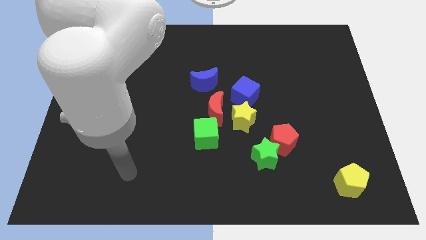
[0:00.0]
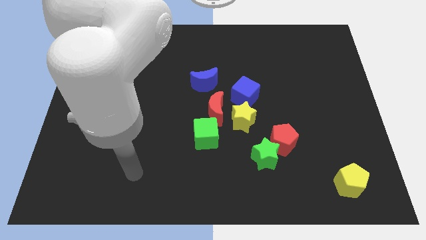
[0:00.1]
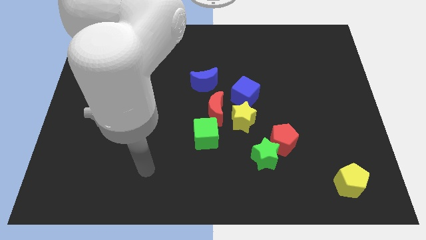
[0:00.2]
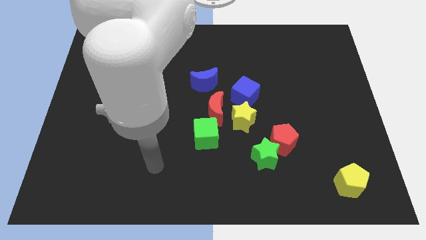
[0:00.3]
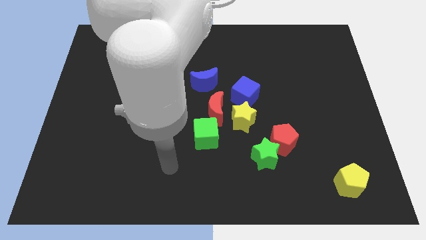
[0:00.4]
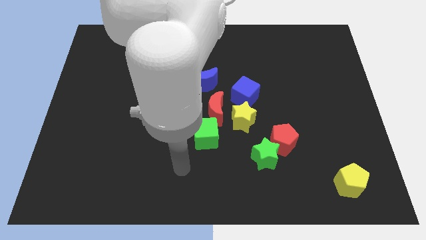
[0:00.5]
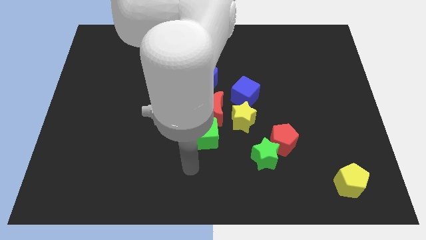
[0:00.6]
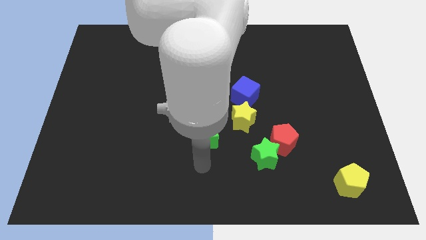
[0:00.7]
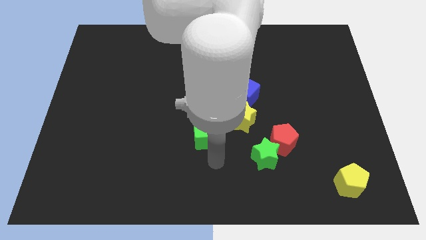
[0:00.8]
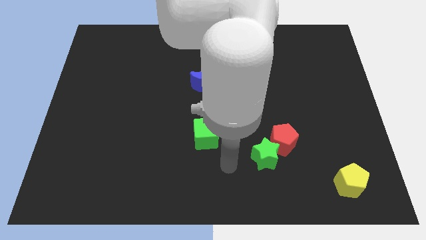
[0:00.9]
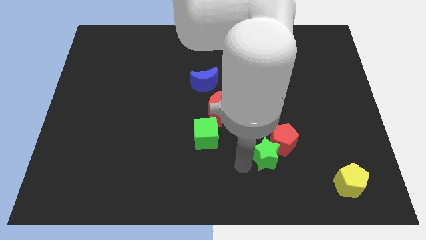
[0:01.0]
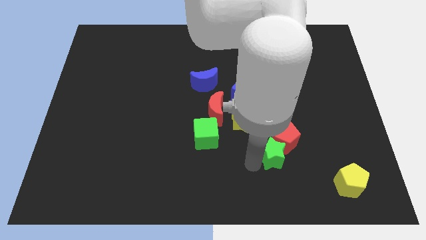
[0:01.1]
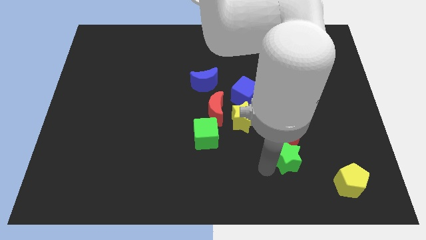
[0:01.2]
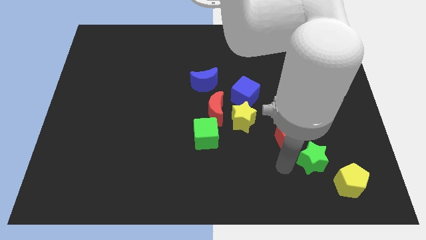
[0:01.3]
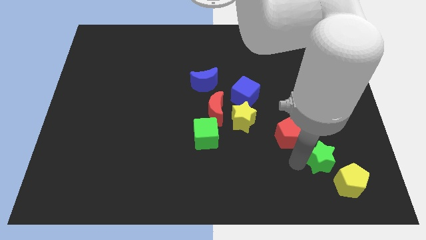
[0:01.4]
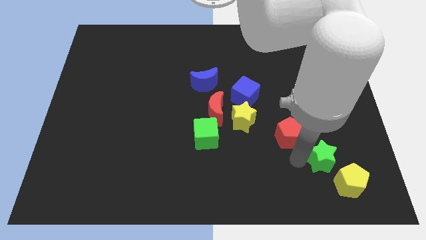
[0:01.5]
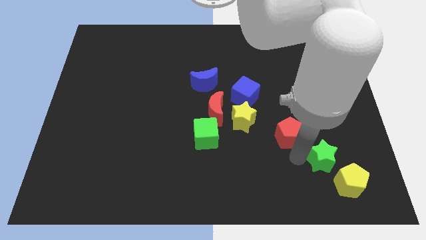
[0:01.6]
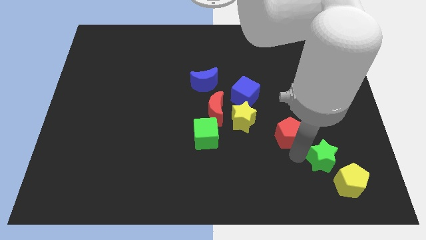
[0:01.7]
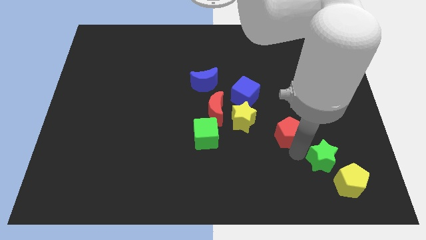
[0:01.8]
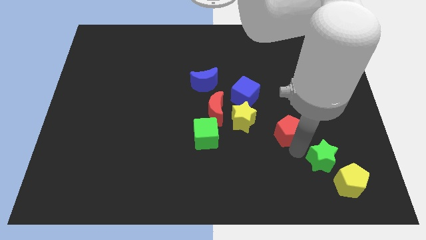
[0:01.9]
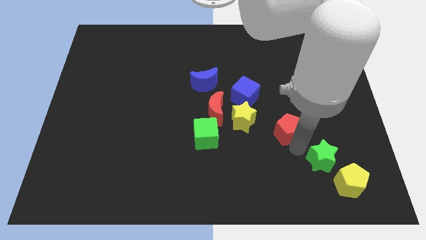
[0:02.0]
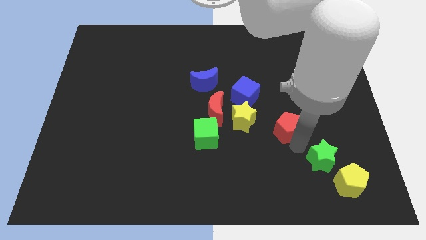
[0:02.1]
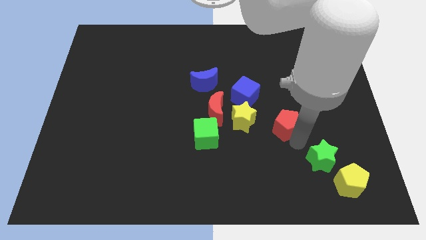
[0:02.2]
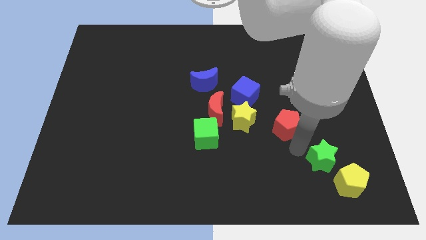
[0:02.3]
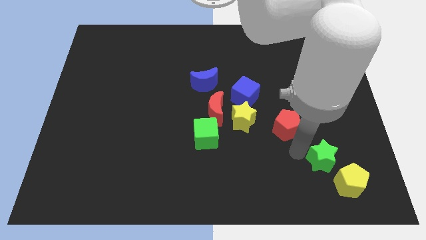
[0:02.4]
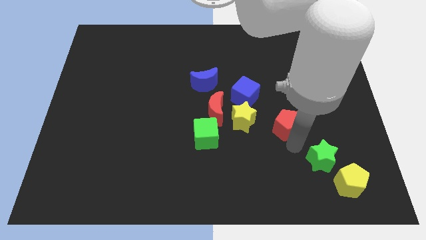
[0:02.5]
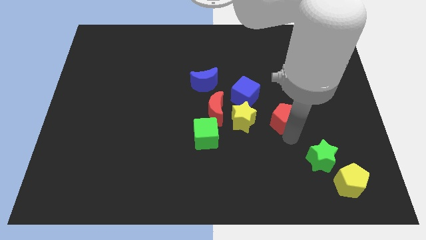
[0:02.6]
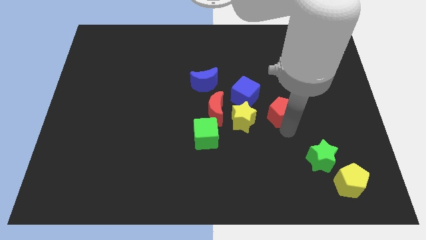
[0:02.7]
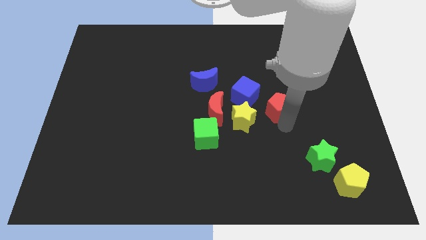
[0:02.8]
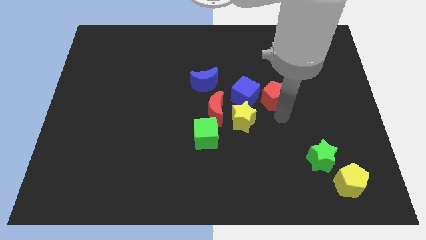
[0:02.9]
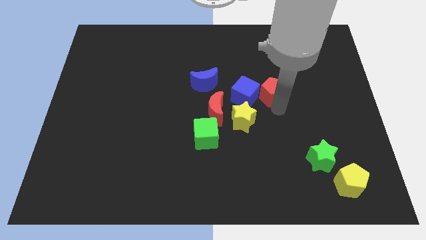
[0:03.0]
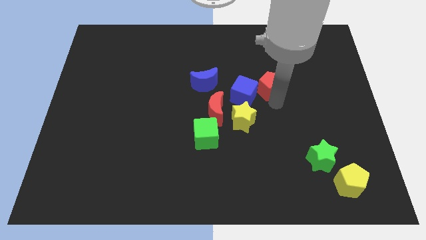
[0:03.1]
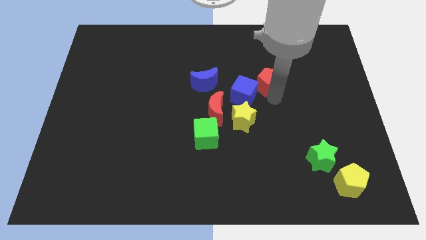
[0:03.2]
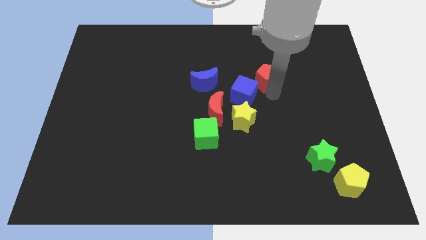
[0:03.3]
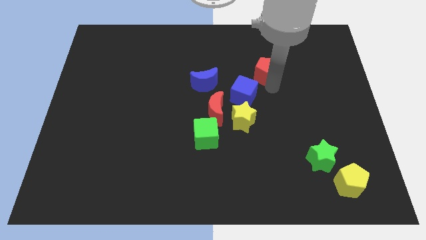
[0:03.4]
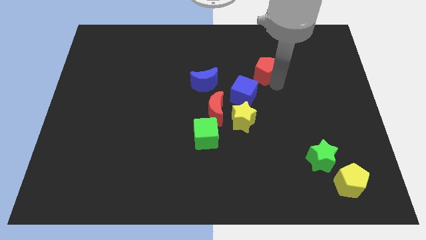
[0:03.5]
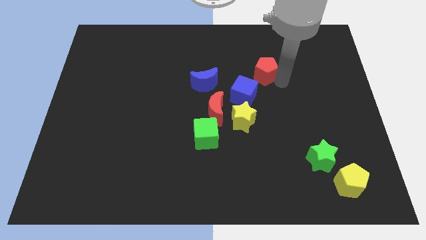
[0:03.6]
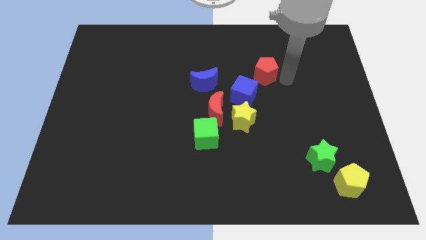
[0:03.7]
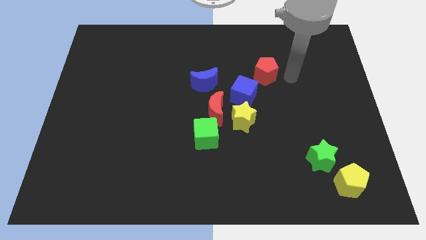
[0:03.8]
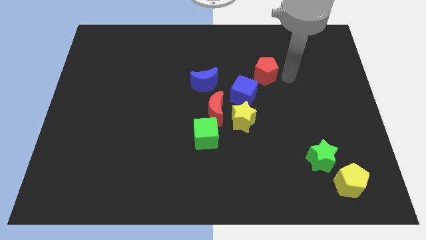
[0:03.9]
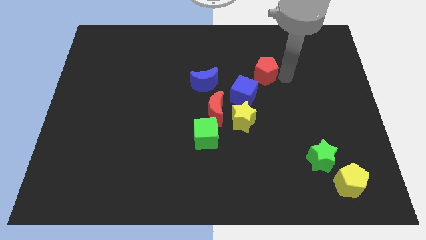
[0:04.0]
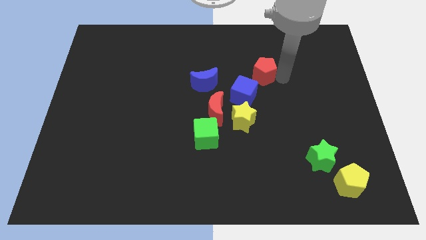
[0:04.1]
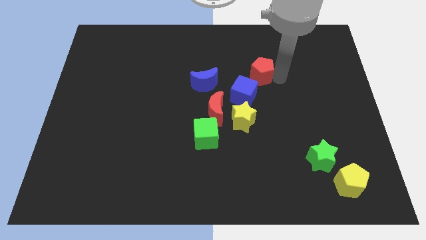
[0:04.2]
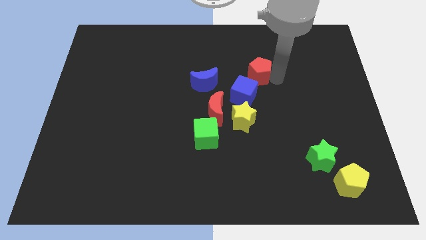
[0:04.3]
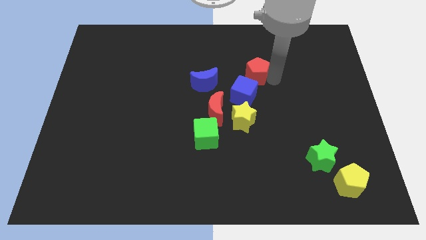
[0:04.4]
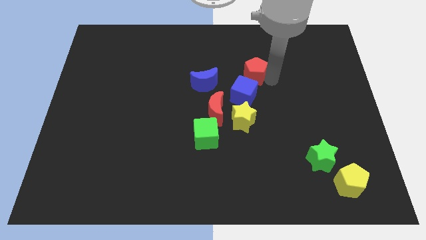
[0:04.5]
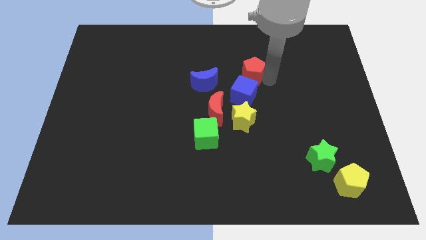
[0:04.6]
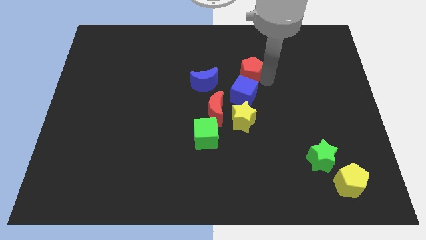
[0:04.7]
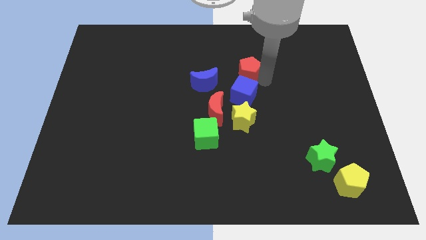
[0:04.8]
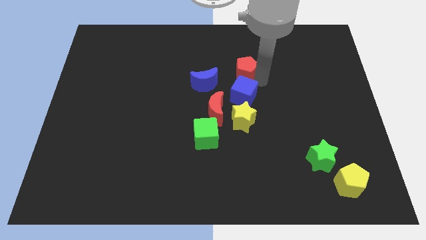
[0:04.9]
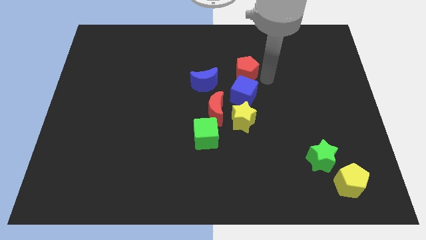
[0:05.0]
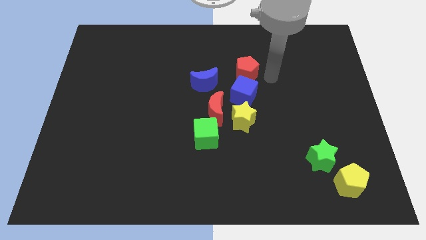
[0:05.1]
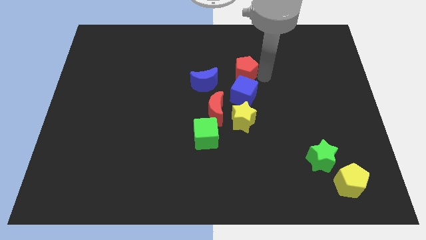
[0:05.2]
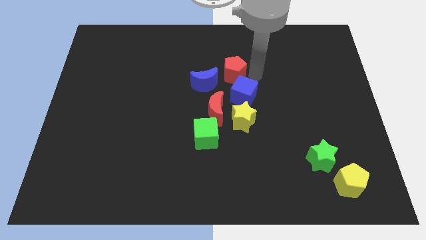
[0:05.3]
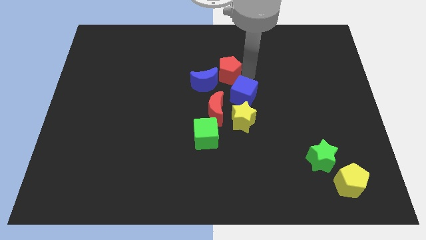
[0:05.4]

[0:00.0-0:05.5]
push the red pentagon upwards and left diagonally

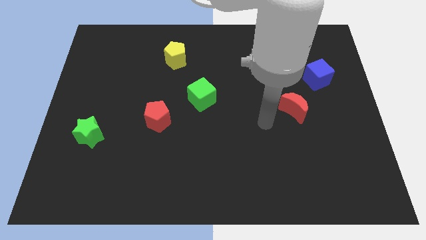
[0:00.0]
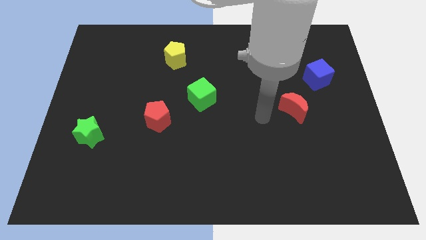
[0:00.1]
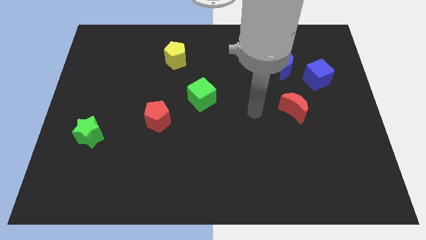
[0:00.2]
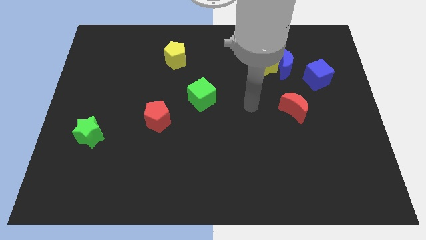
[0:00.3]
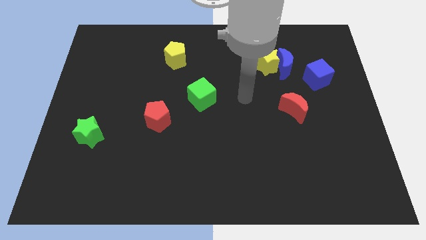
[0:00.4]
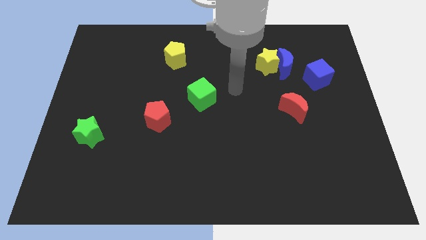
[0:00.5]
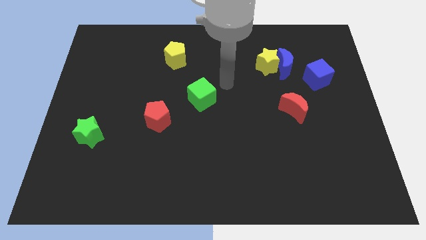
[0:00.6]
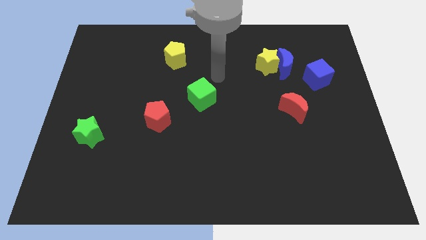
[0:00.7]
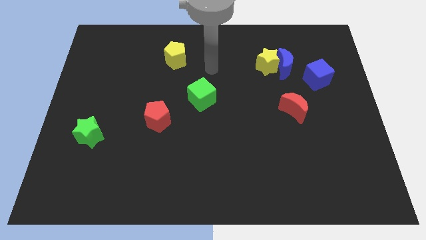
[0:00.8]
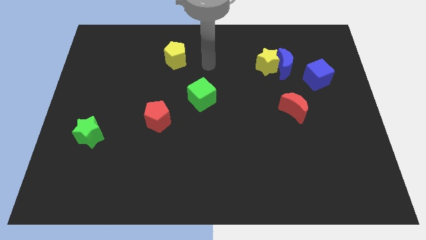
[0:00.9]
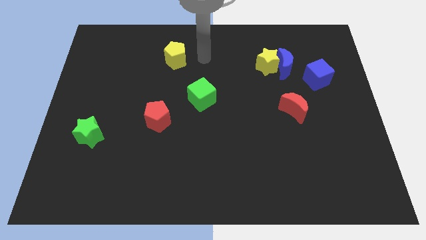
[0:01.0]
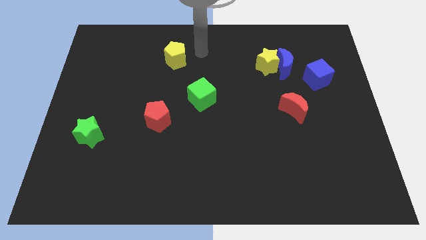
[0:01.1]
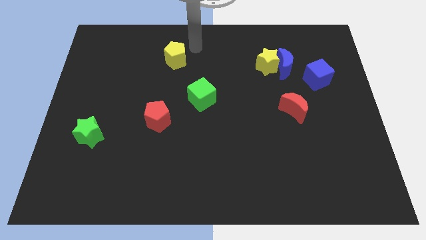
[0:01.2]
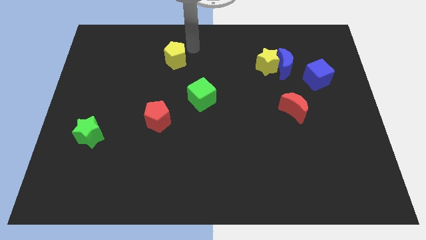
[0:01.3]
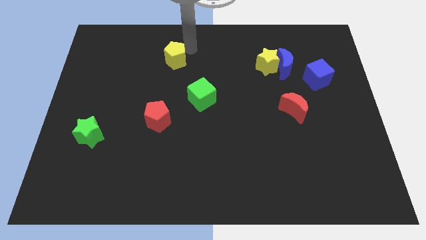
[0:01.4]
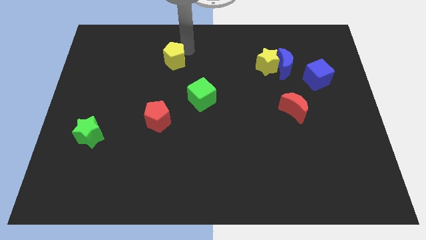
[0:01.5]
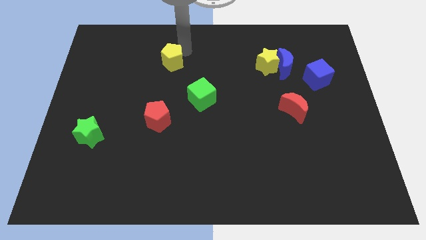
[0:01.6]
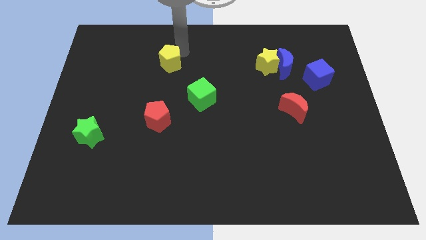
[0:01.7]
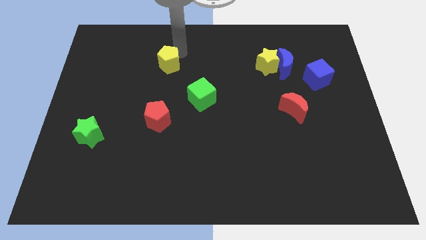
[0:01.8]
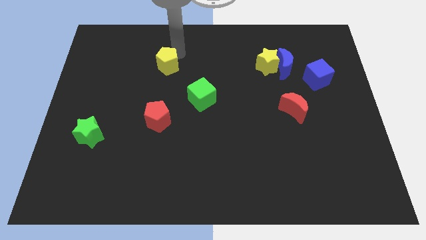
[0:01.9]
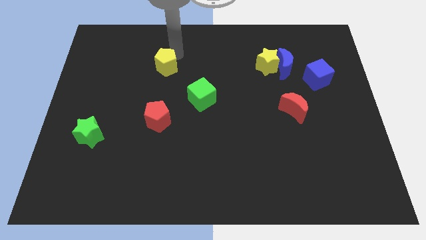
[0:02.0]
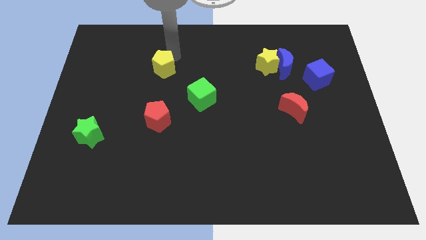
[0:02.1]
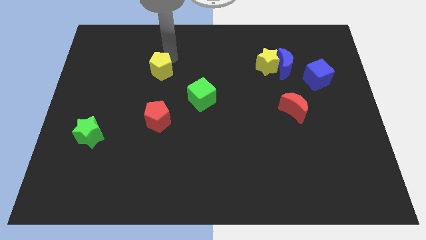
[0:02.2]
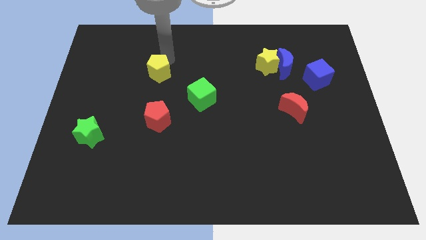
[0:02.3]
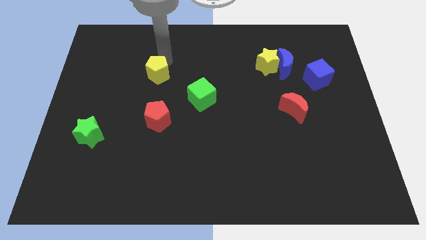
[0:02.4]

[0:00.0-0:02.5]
slightly move the yellow pentagon diagonally down and left
